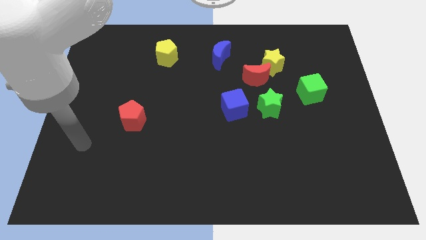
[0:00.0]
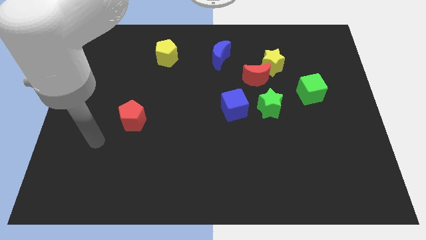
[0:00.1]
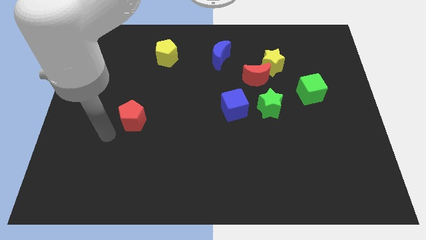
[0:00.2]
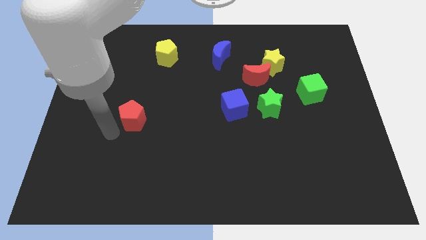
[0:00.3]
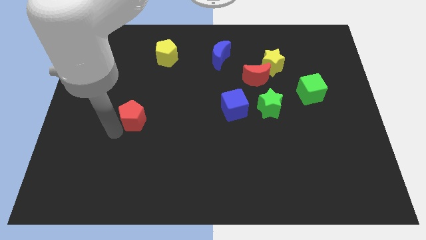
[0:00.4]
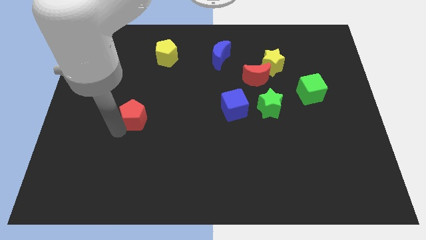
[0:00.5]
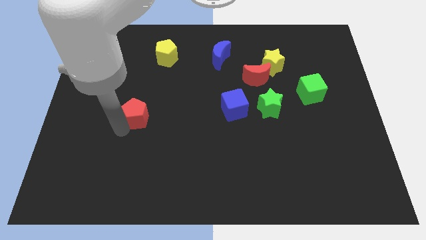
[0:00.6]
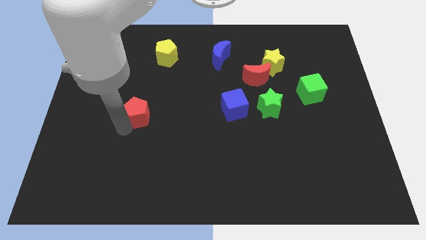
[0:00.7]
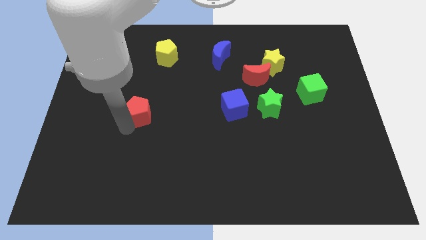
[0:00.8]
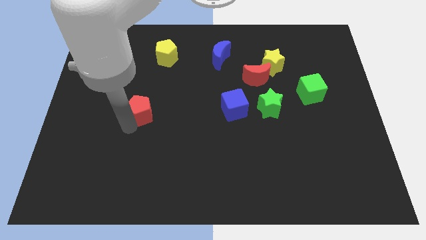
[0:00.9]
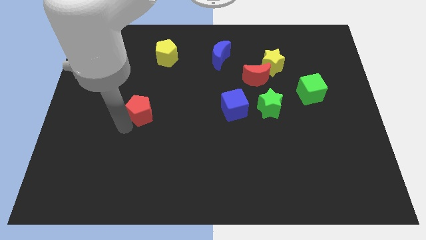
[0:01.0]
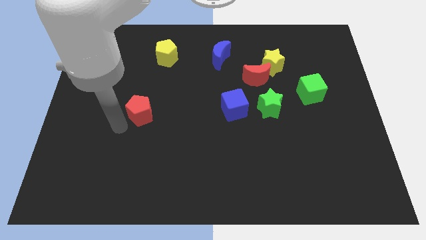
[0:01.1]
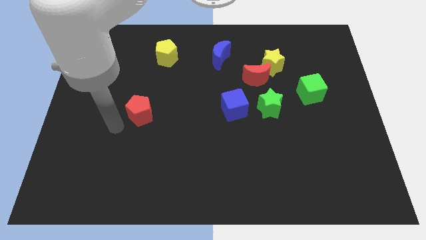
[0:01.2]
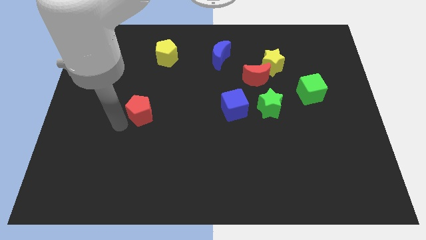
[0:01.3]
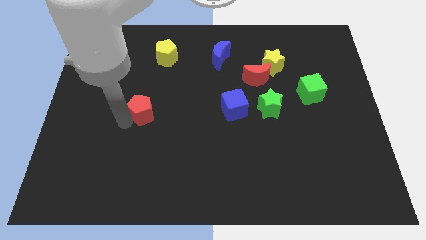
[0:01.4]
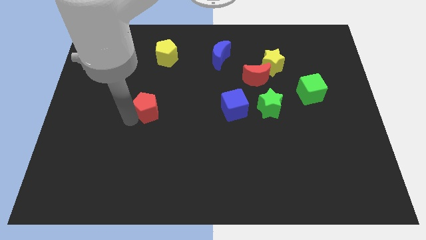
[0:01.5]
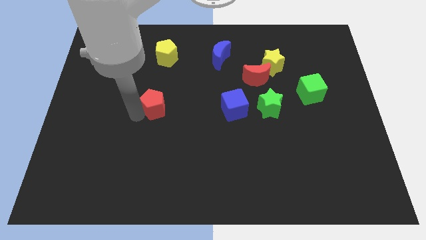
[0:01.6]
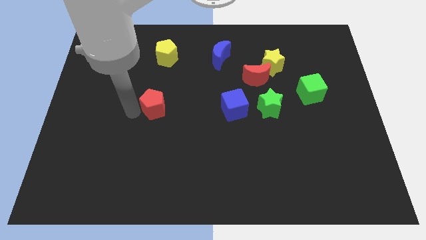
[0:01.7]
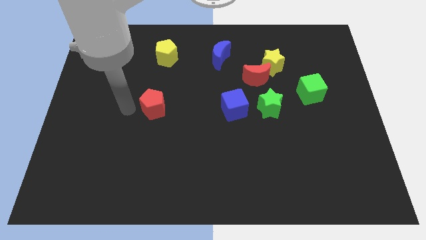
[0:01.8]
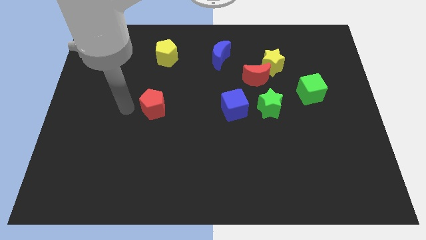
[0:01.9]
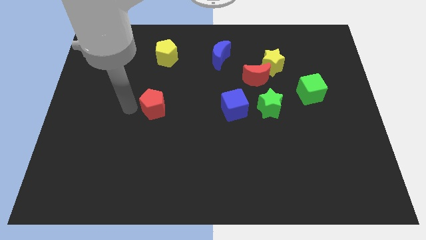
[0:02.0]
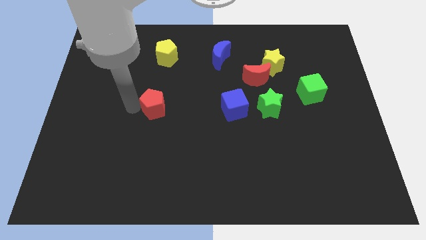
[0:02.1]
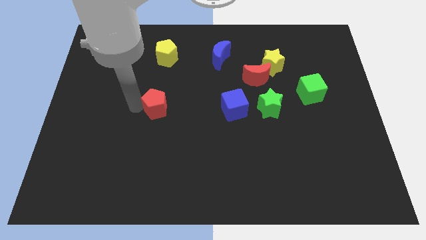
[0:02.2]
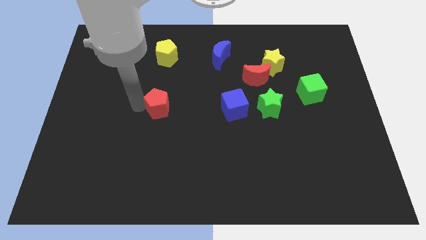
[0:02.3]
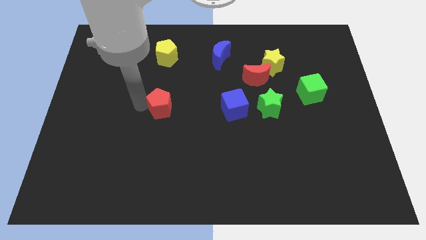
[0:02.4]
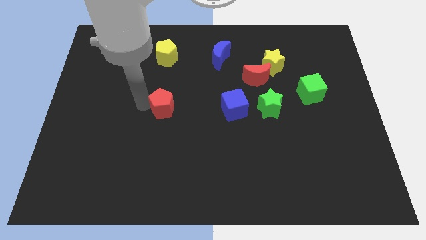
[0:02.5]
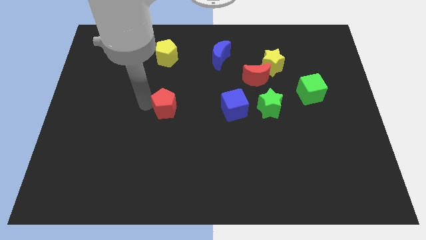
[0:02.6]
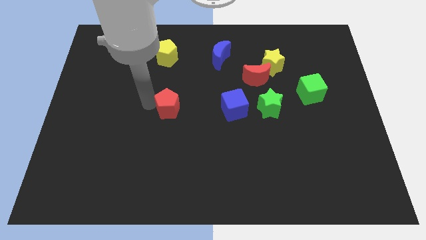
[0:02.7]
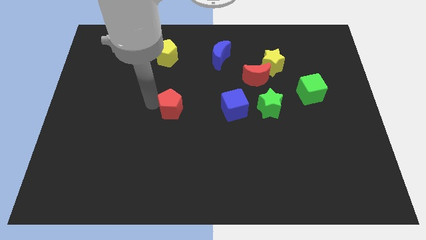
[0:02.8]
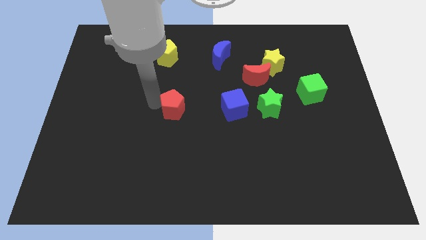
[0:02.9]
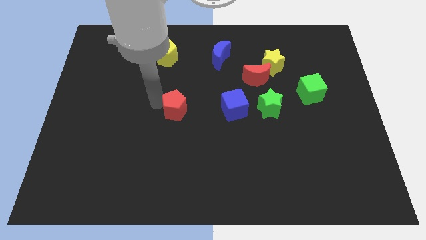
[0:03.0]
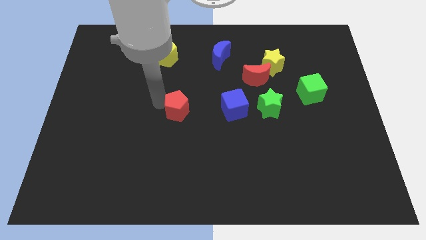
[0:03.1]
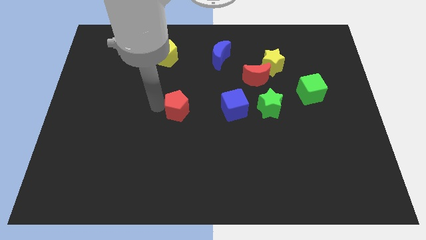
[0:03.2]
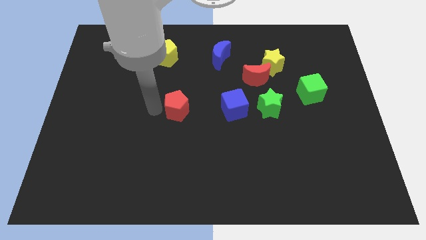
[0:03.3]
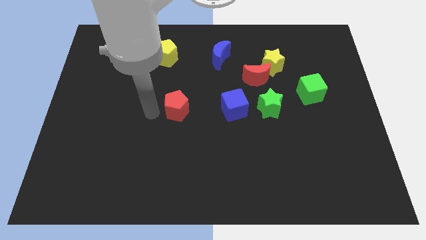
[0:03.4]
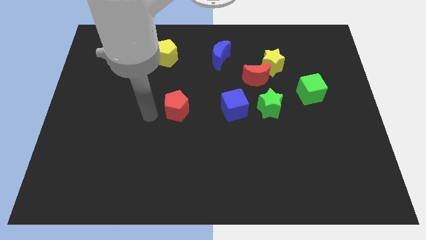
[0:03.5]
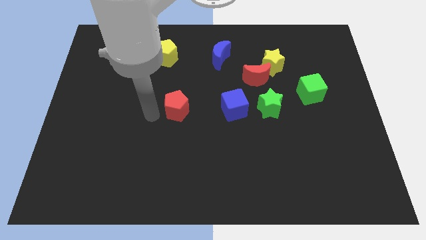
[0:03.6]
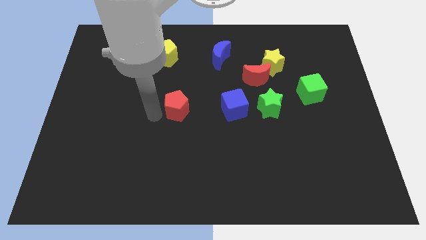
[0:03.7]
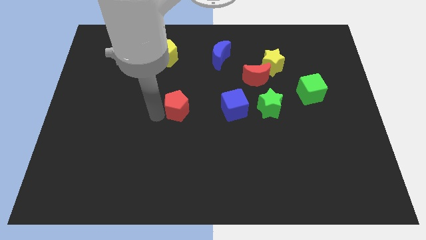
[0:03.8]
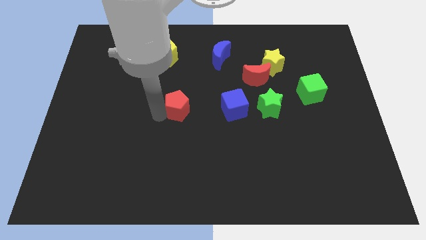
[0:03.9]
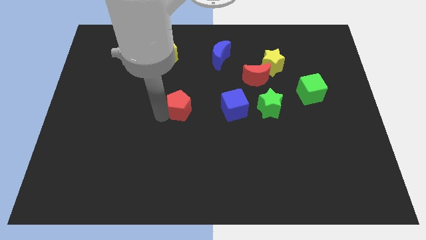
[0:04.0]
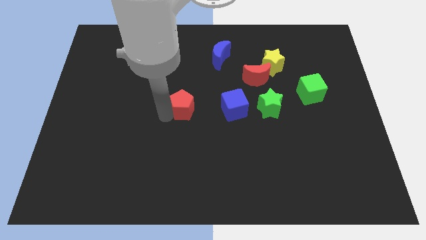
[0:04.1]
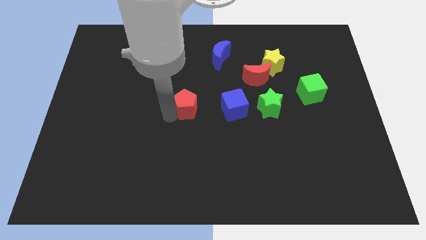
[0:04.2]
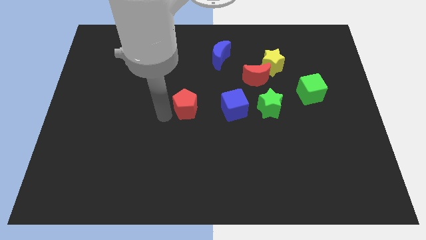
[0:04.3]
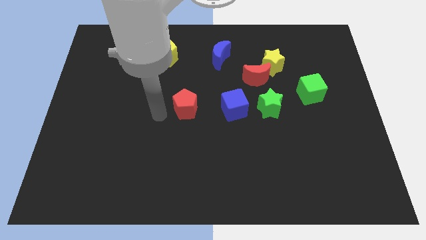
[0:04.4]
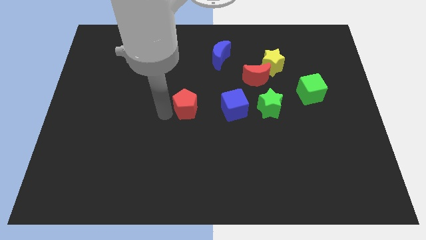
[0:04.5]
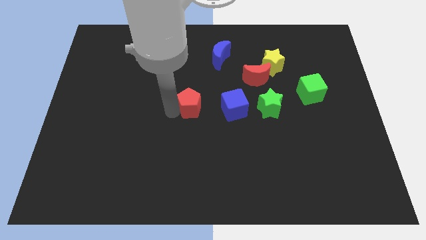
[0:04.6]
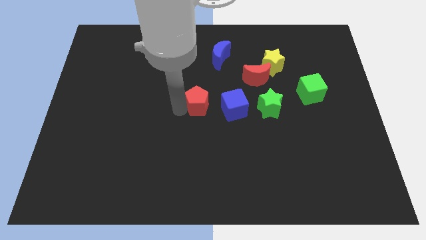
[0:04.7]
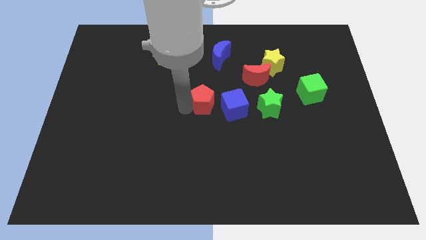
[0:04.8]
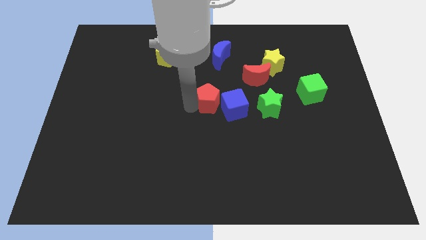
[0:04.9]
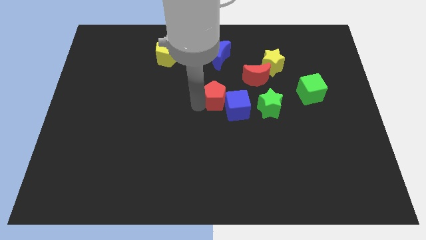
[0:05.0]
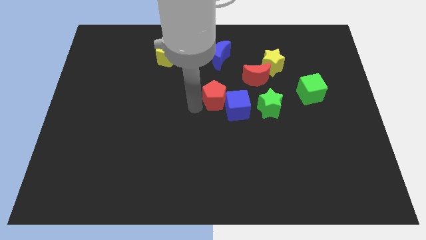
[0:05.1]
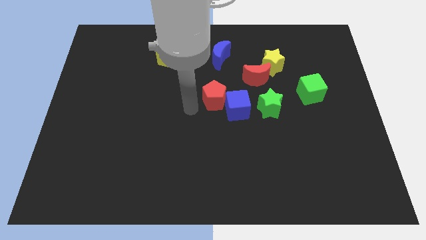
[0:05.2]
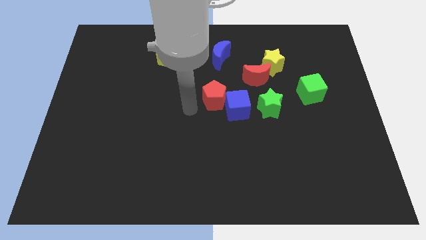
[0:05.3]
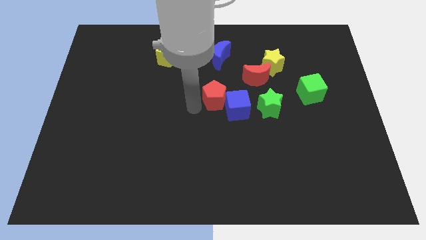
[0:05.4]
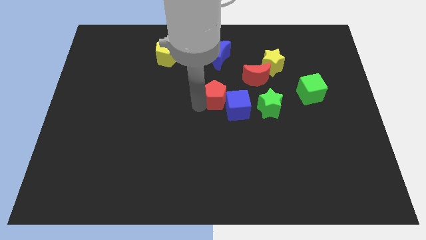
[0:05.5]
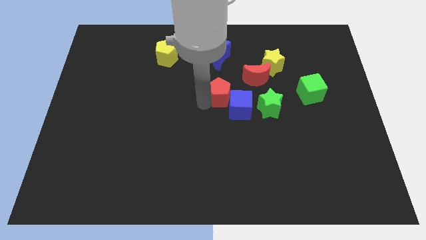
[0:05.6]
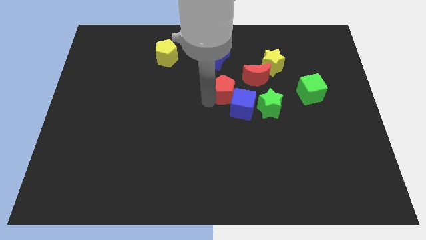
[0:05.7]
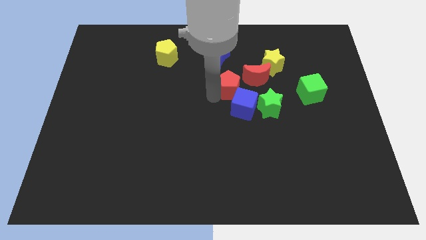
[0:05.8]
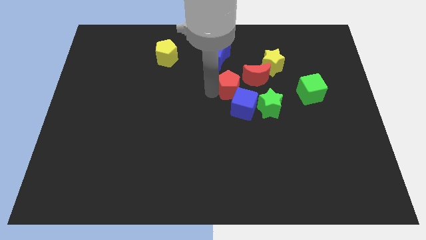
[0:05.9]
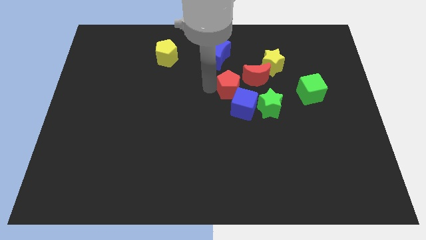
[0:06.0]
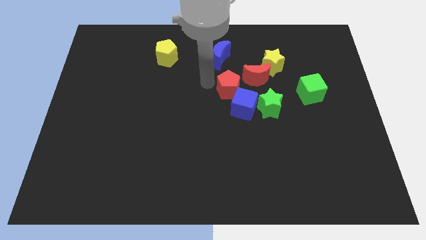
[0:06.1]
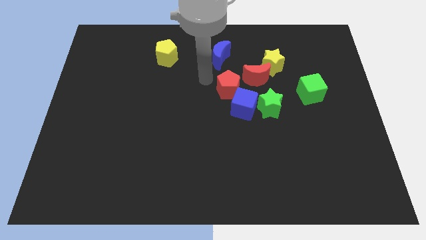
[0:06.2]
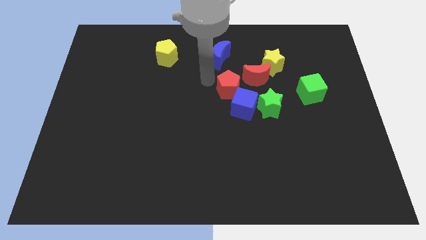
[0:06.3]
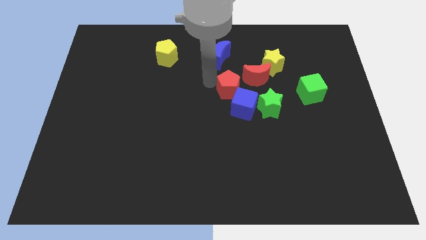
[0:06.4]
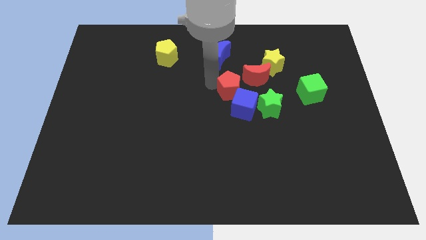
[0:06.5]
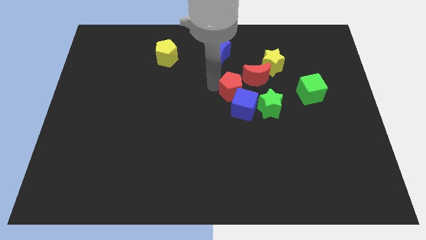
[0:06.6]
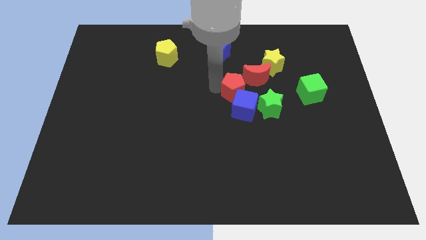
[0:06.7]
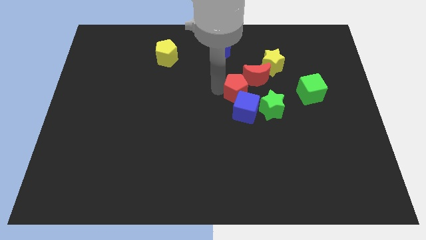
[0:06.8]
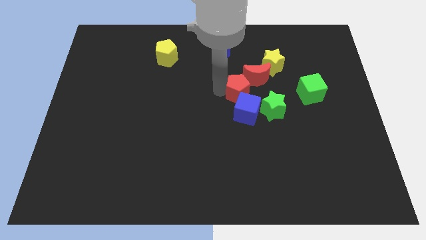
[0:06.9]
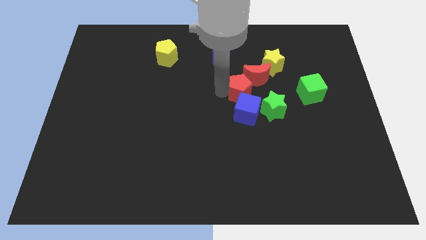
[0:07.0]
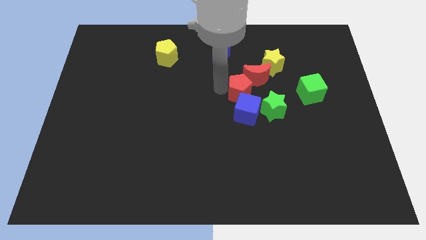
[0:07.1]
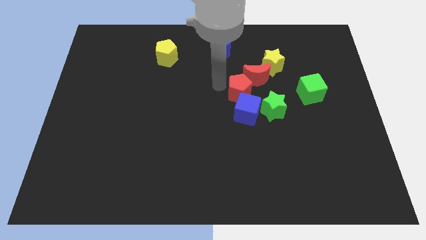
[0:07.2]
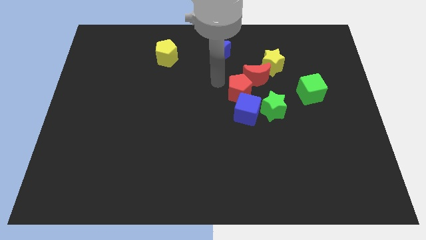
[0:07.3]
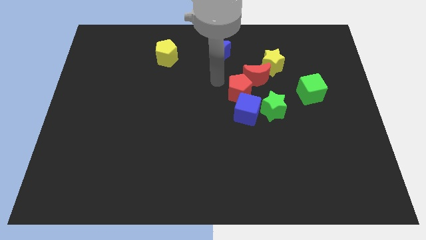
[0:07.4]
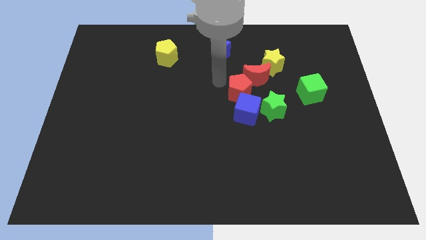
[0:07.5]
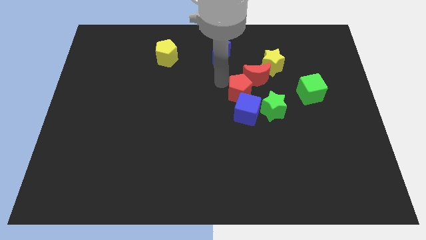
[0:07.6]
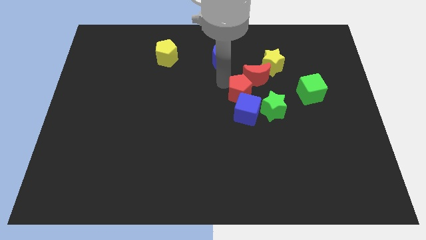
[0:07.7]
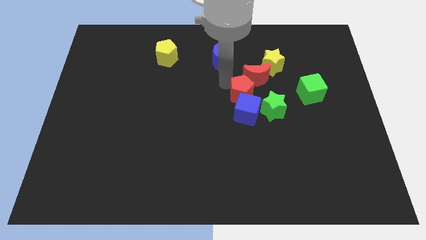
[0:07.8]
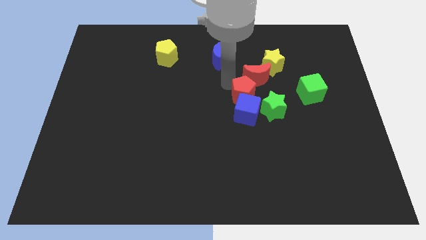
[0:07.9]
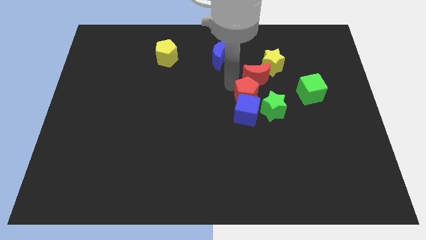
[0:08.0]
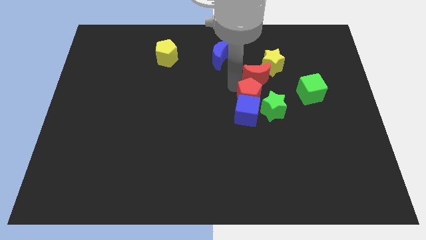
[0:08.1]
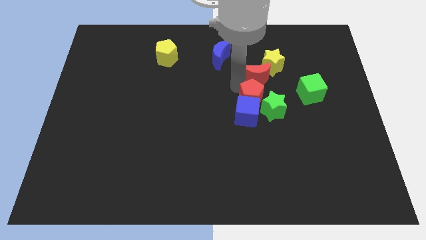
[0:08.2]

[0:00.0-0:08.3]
move the red pentagon close to the green star

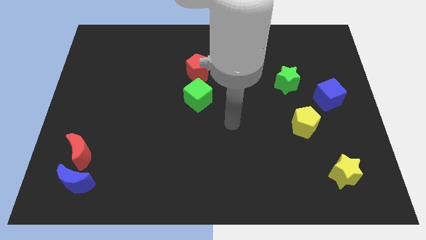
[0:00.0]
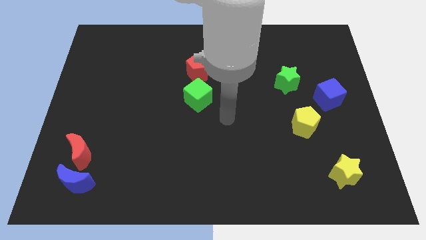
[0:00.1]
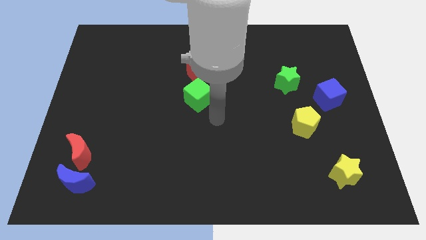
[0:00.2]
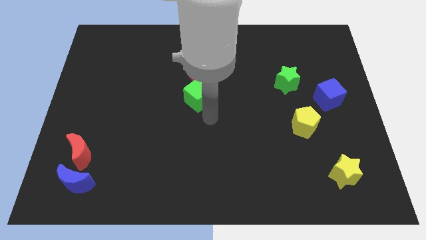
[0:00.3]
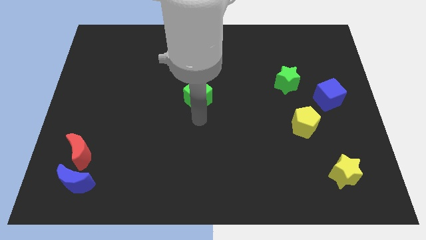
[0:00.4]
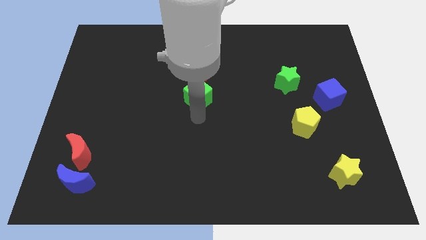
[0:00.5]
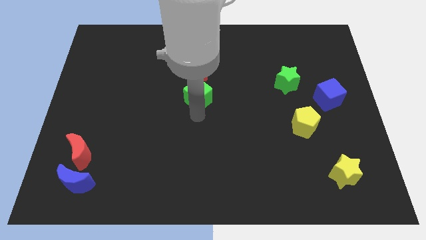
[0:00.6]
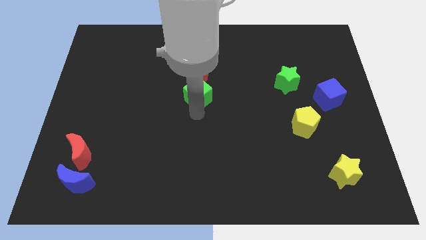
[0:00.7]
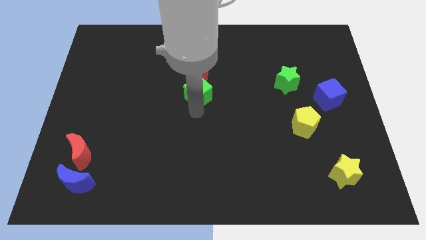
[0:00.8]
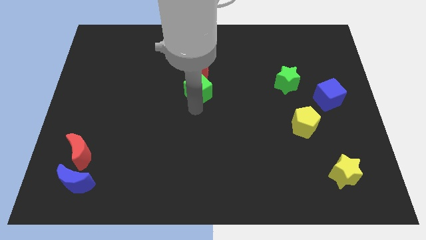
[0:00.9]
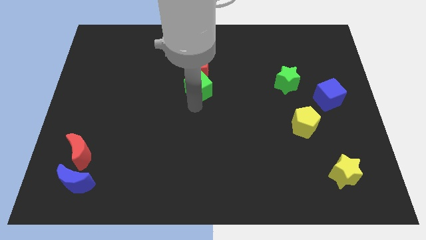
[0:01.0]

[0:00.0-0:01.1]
move the green cube towards the red pentagon
